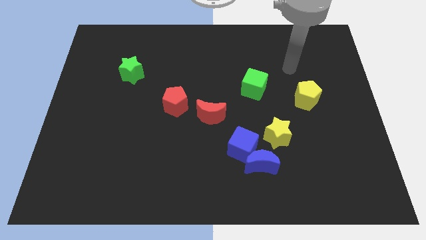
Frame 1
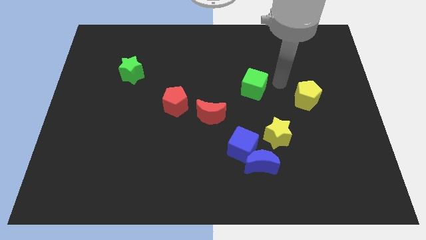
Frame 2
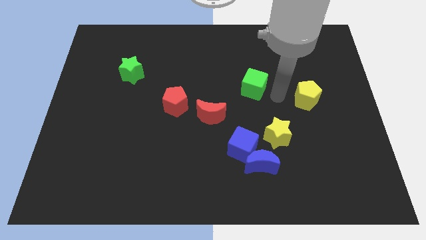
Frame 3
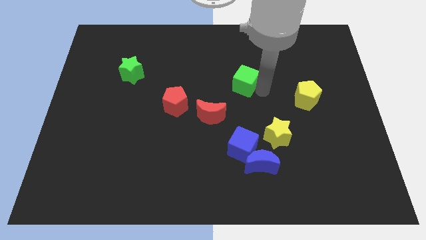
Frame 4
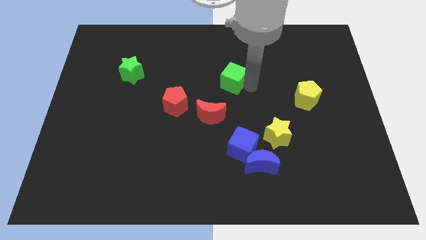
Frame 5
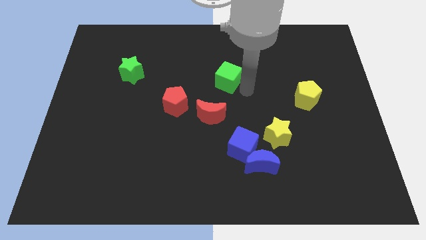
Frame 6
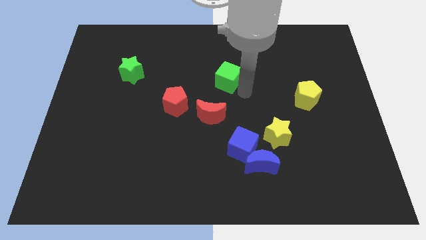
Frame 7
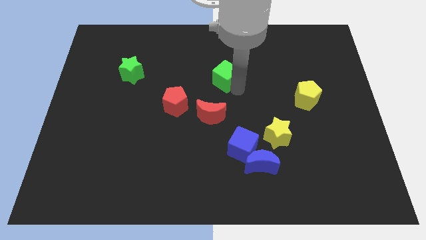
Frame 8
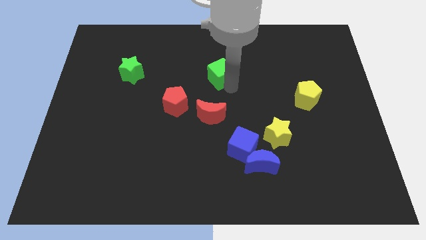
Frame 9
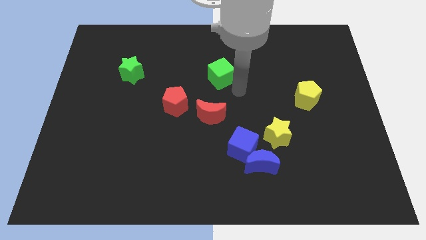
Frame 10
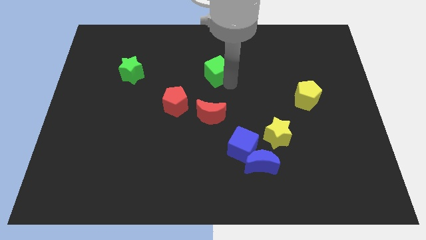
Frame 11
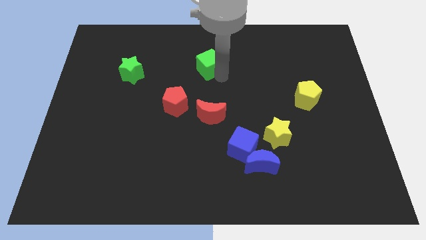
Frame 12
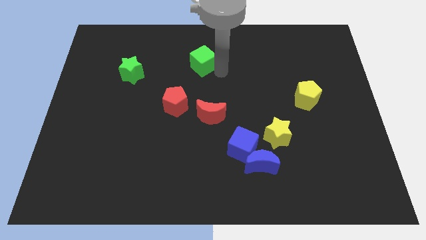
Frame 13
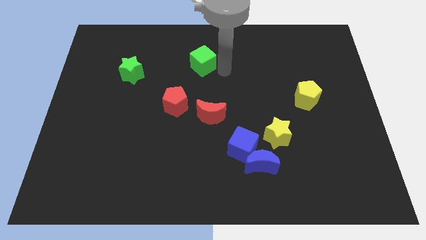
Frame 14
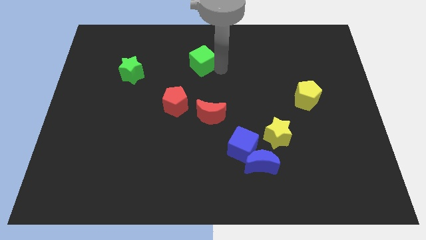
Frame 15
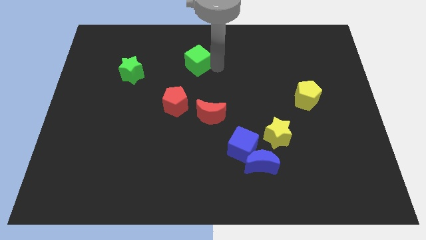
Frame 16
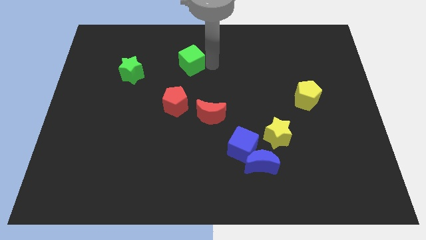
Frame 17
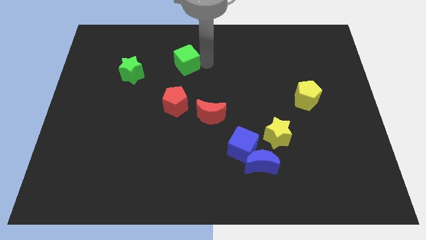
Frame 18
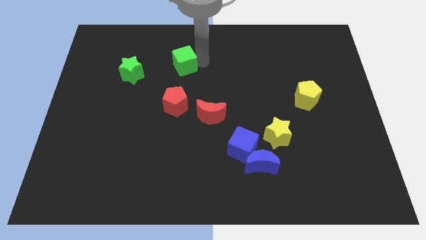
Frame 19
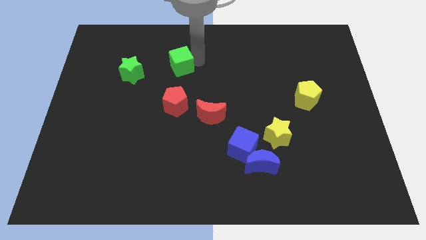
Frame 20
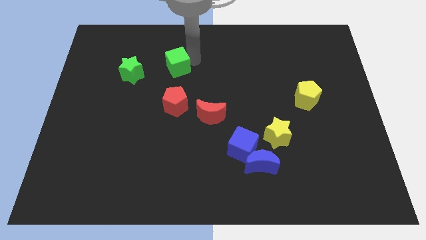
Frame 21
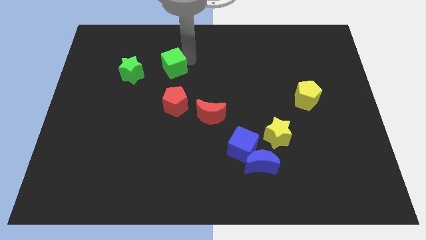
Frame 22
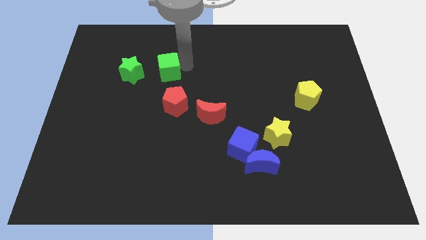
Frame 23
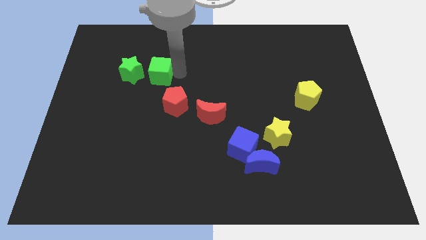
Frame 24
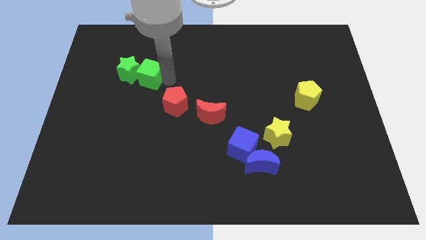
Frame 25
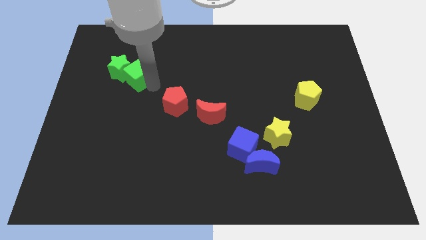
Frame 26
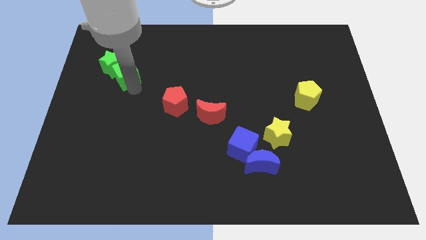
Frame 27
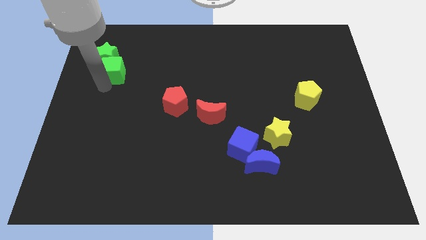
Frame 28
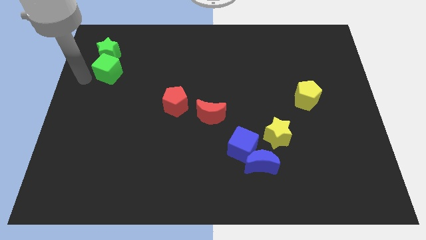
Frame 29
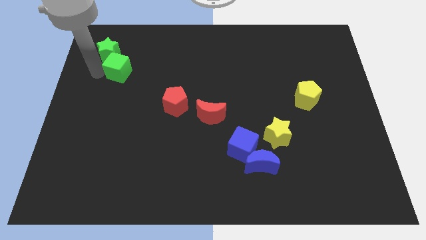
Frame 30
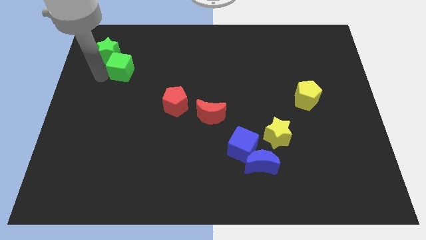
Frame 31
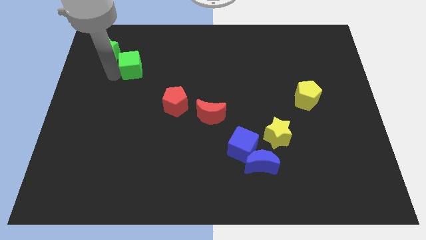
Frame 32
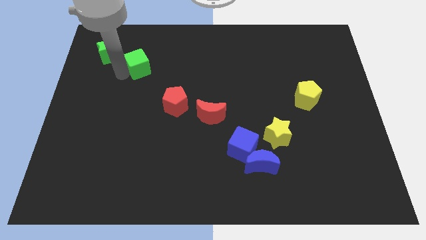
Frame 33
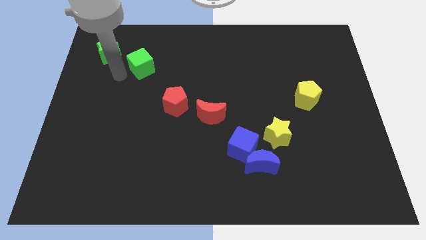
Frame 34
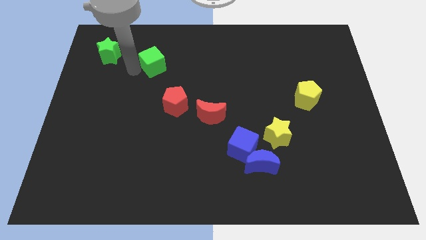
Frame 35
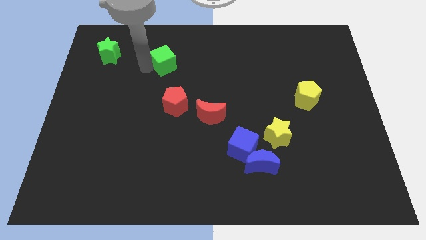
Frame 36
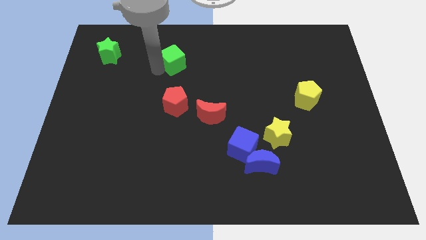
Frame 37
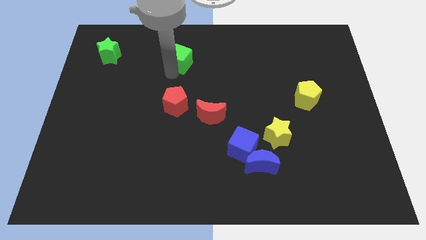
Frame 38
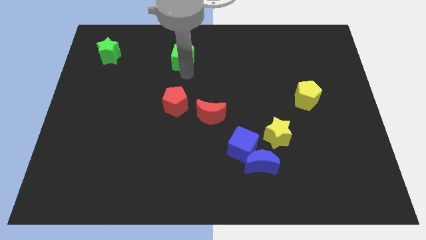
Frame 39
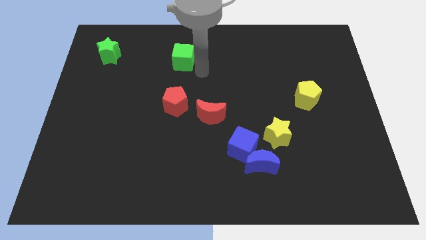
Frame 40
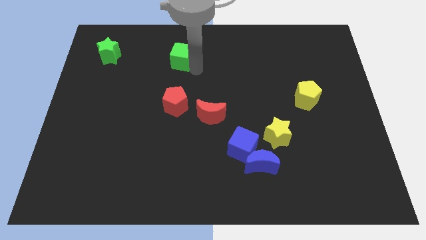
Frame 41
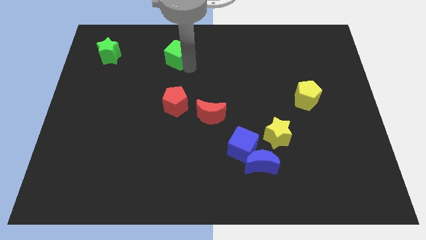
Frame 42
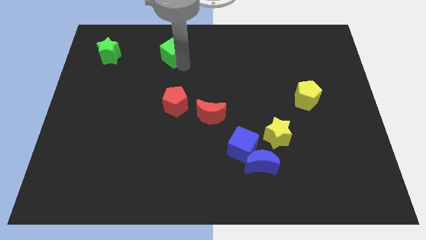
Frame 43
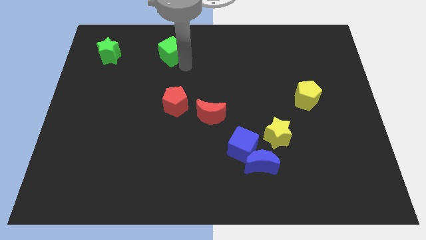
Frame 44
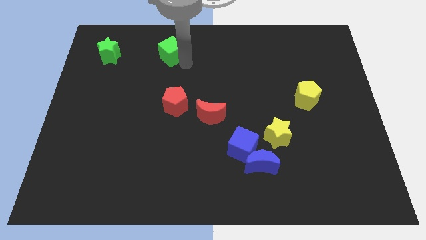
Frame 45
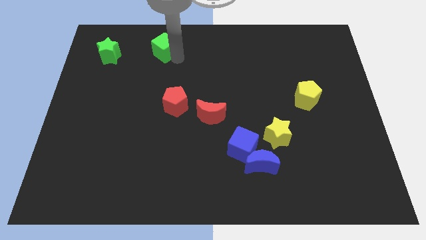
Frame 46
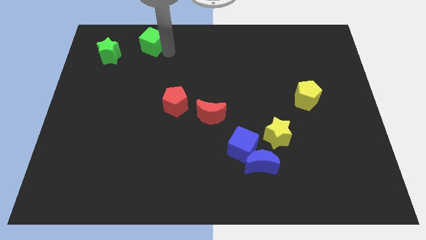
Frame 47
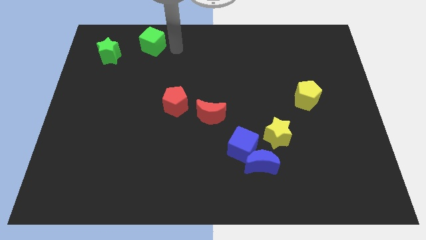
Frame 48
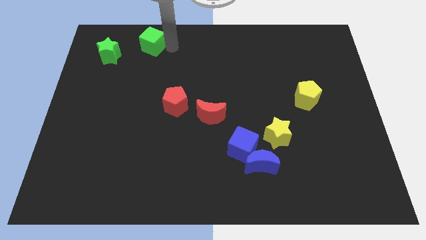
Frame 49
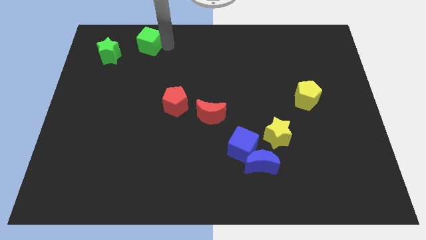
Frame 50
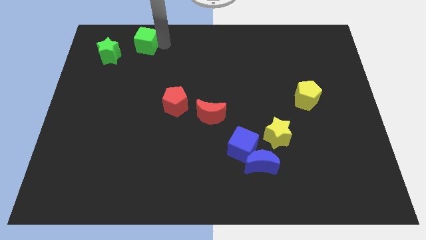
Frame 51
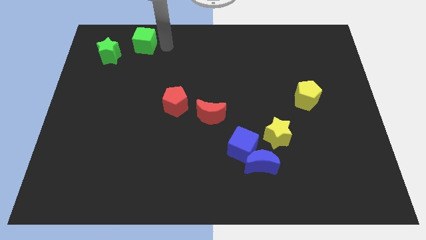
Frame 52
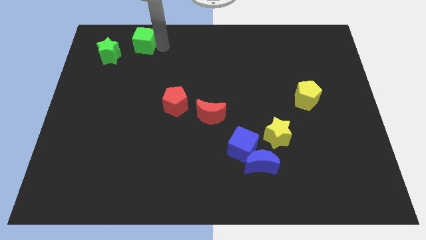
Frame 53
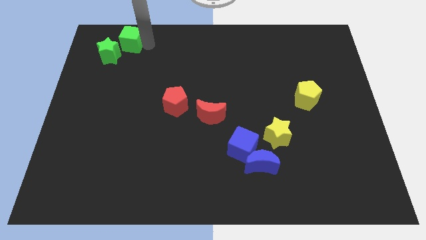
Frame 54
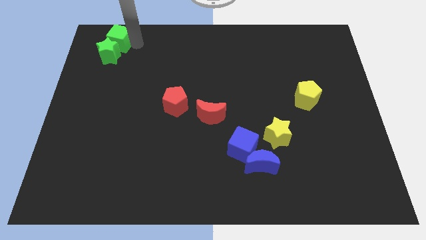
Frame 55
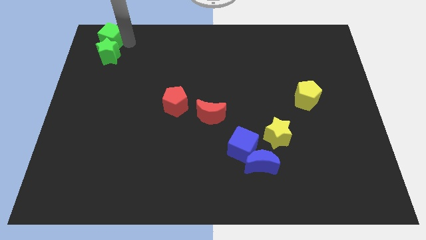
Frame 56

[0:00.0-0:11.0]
slide the green cube to the upper left corner

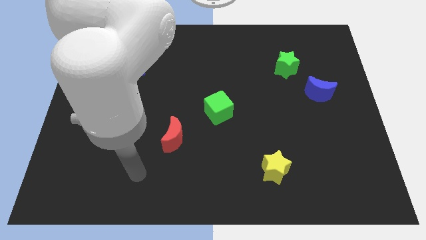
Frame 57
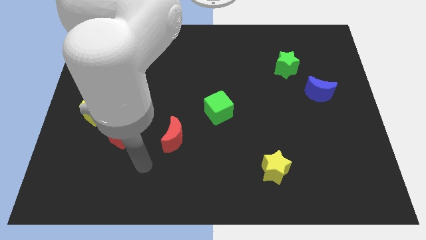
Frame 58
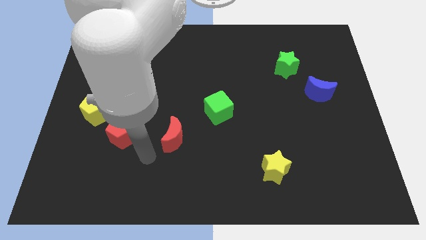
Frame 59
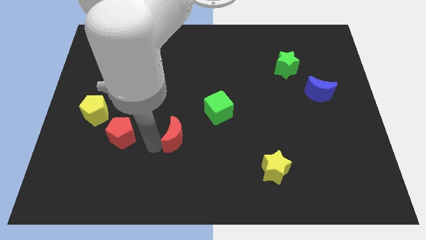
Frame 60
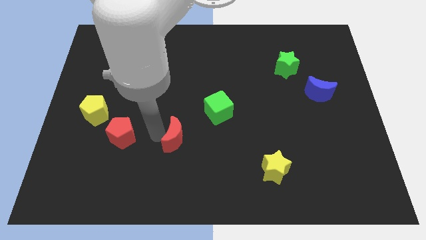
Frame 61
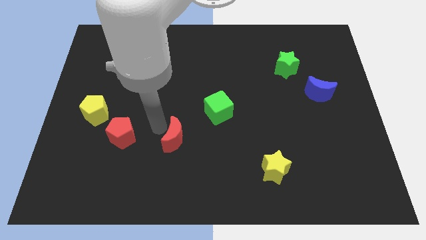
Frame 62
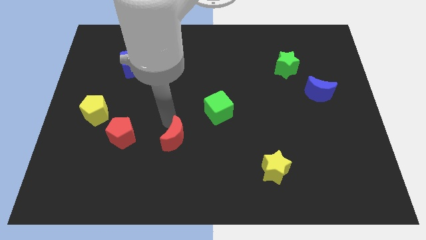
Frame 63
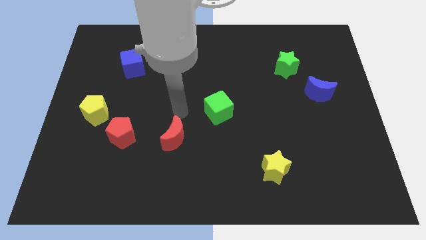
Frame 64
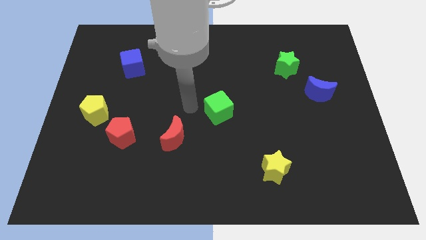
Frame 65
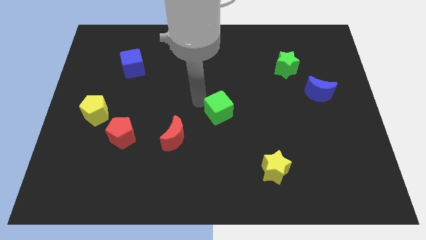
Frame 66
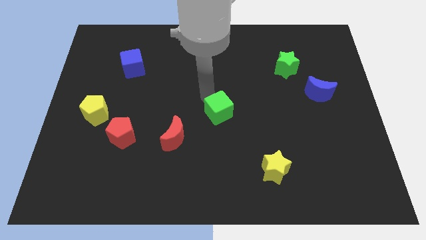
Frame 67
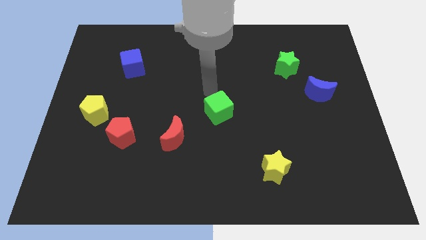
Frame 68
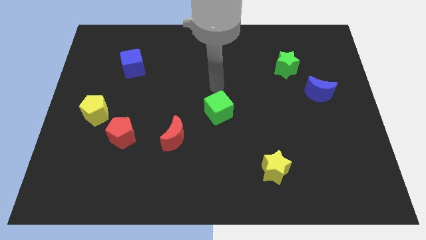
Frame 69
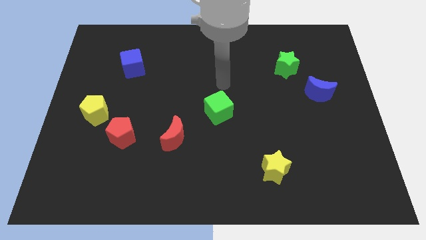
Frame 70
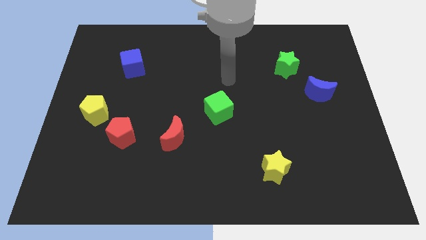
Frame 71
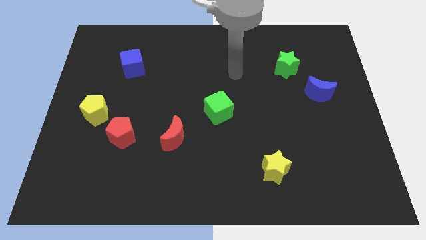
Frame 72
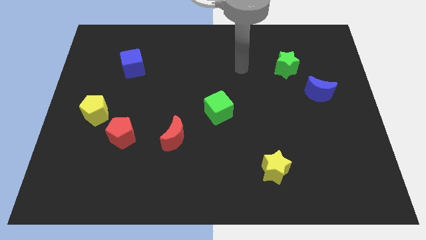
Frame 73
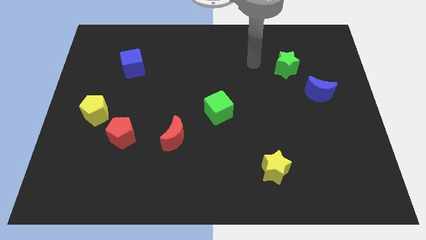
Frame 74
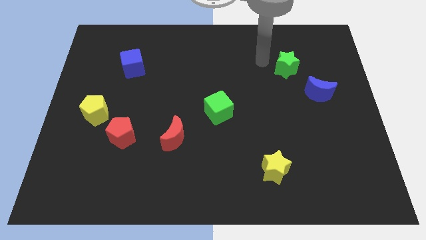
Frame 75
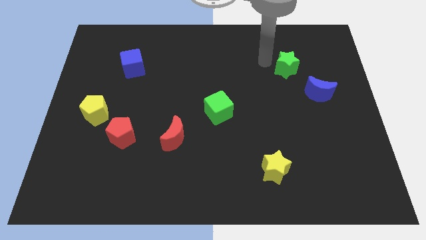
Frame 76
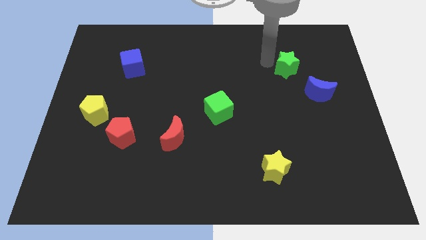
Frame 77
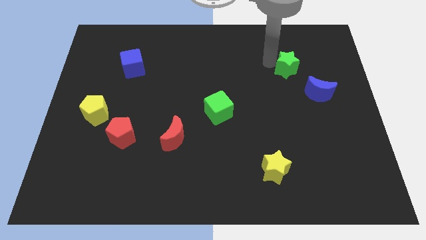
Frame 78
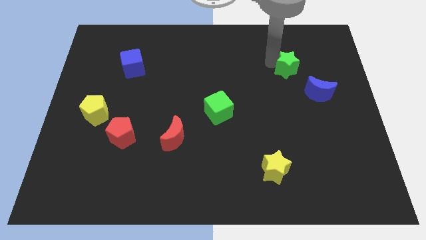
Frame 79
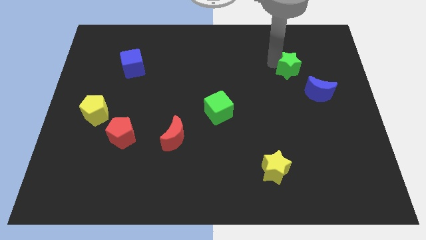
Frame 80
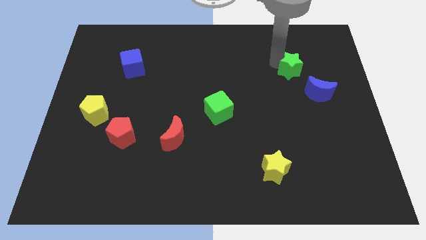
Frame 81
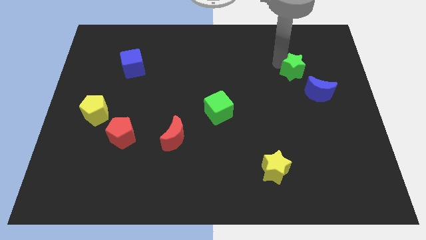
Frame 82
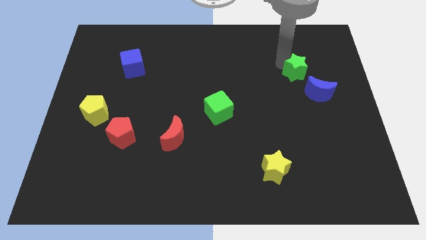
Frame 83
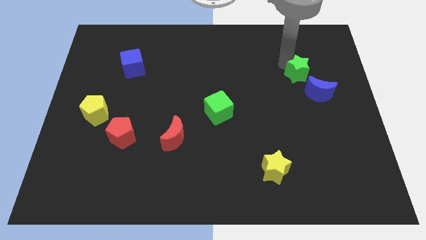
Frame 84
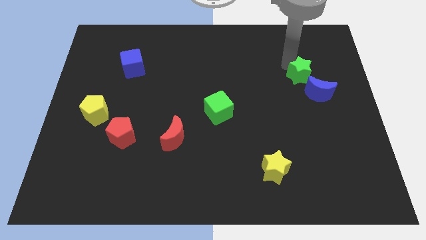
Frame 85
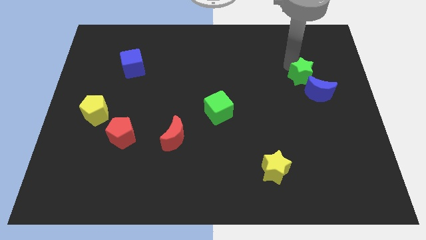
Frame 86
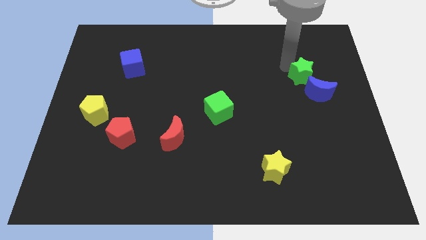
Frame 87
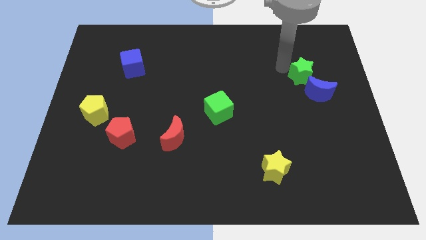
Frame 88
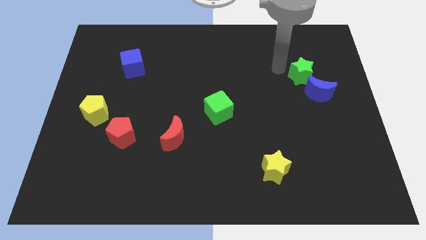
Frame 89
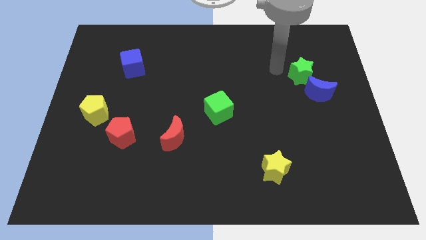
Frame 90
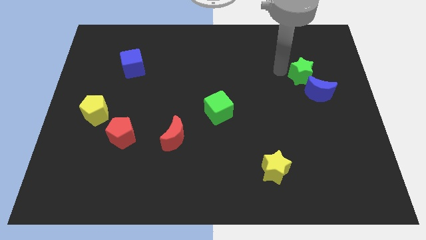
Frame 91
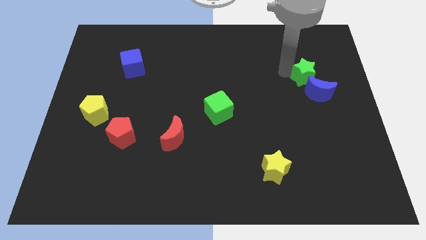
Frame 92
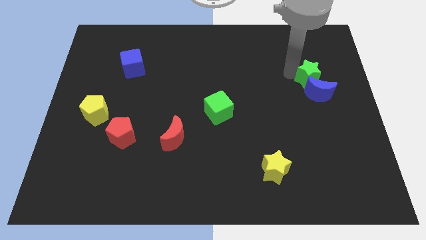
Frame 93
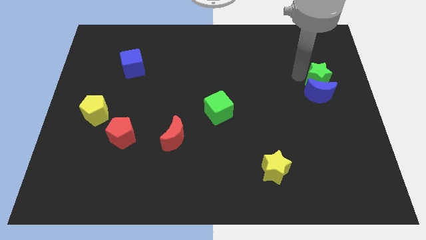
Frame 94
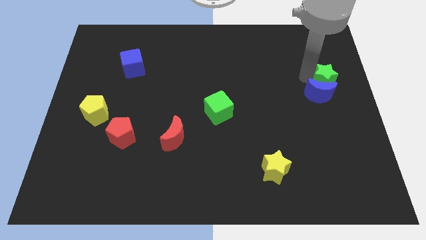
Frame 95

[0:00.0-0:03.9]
slide the green star to the center right
